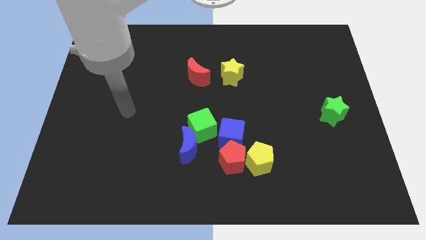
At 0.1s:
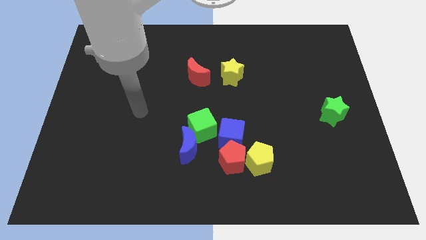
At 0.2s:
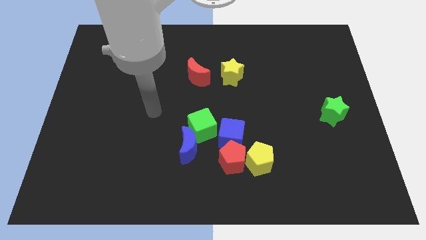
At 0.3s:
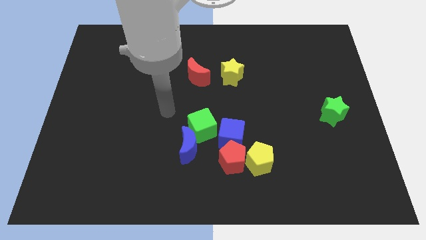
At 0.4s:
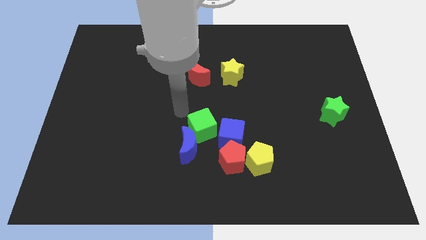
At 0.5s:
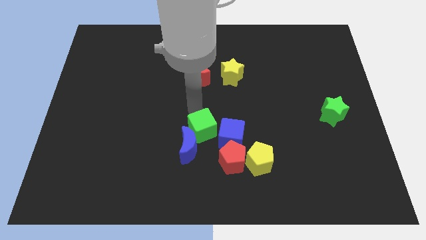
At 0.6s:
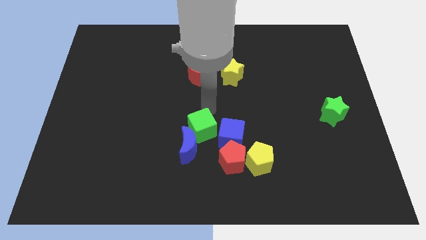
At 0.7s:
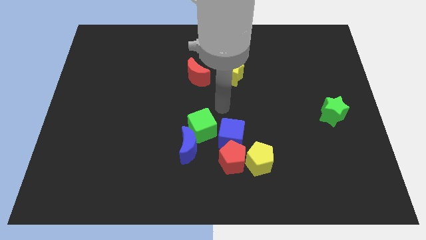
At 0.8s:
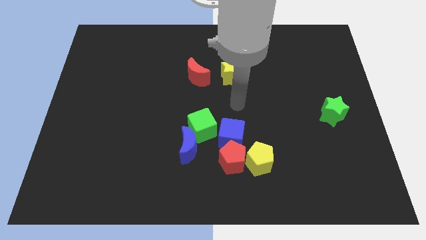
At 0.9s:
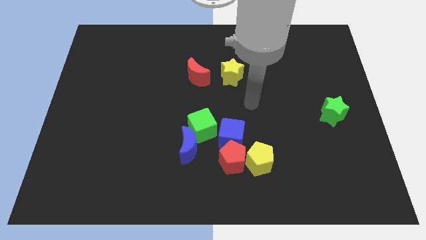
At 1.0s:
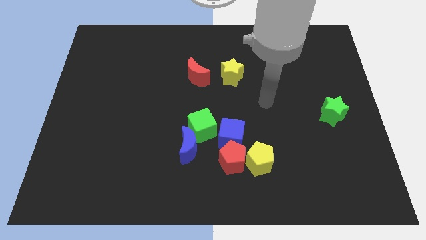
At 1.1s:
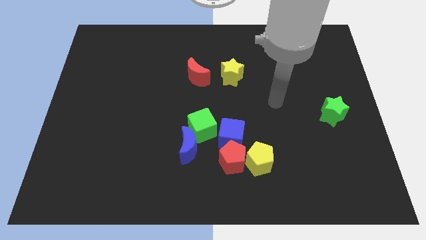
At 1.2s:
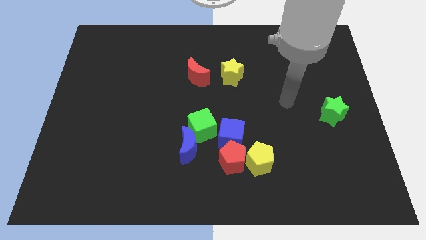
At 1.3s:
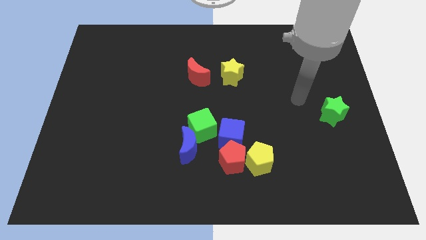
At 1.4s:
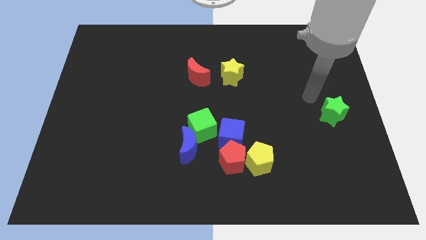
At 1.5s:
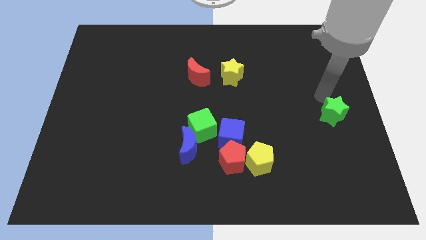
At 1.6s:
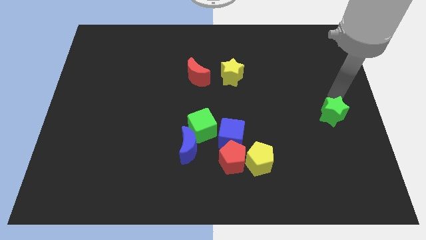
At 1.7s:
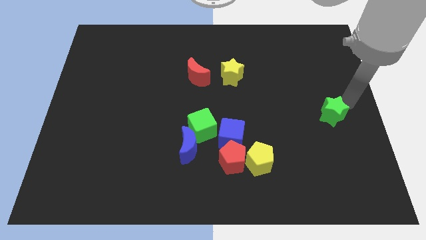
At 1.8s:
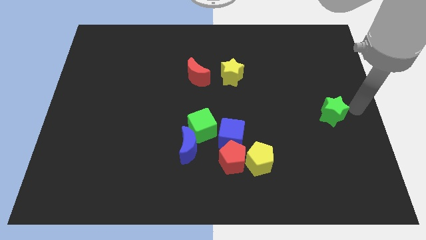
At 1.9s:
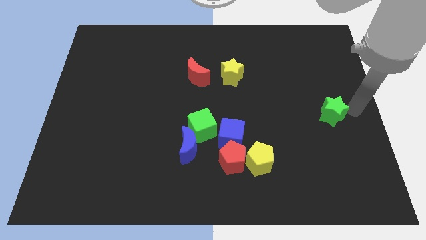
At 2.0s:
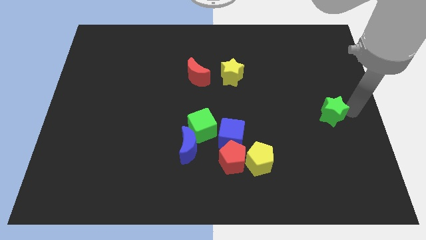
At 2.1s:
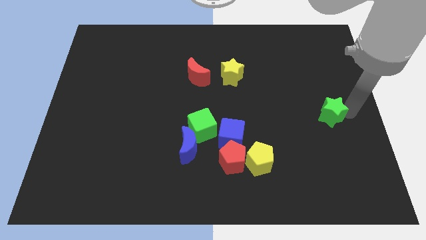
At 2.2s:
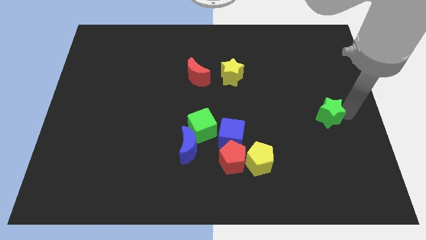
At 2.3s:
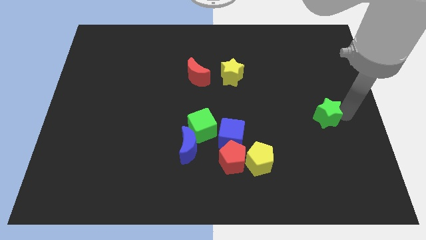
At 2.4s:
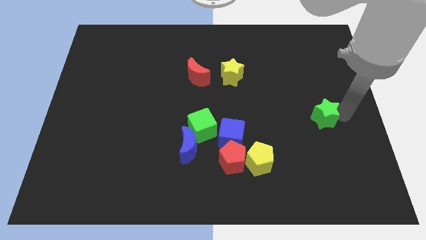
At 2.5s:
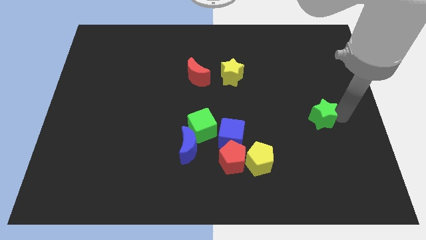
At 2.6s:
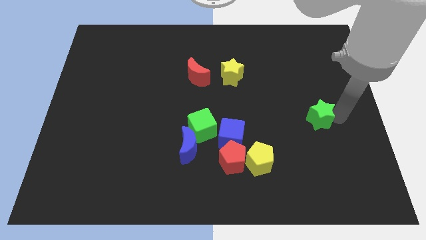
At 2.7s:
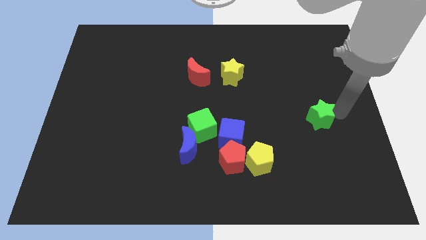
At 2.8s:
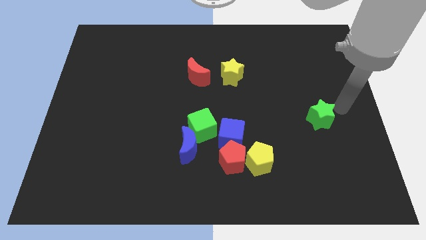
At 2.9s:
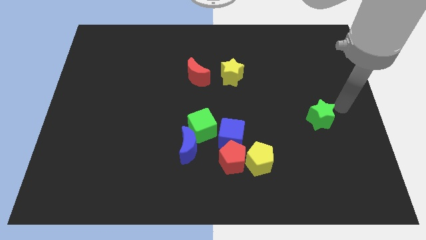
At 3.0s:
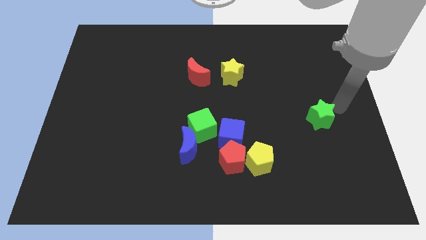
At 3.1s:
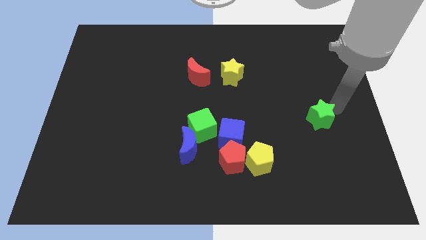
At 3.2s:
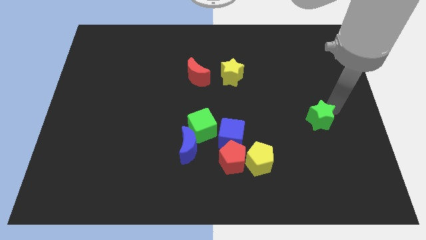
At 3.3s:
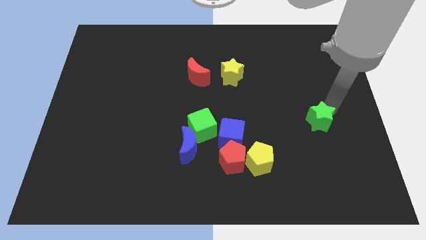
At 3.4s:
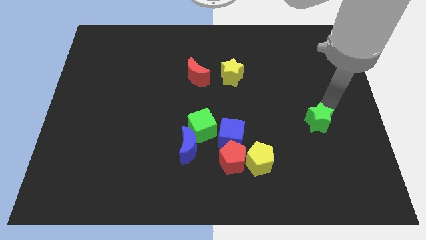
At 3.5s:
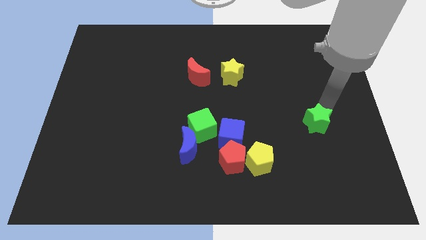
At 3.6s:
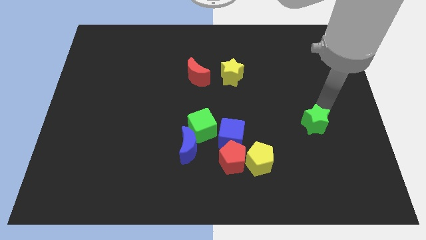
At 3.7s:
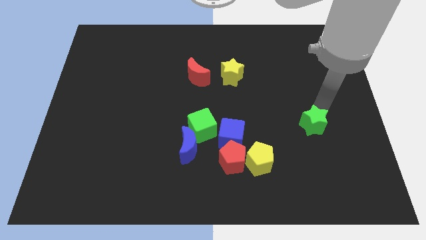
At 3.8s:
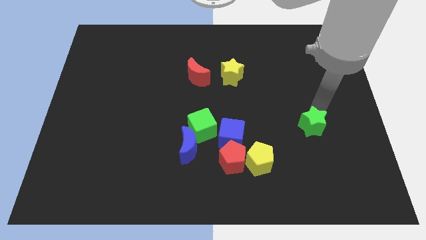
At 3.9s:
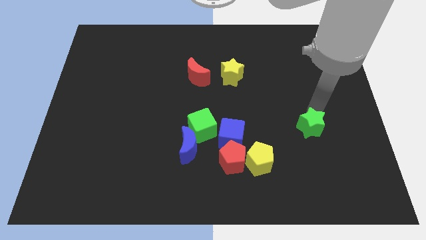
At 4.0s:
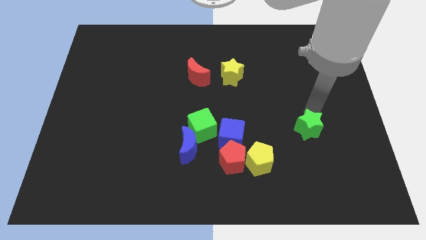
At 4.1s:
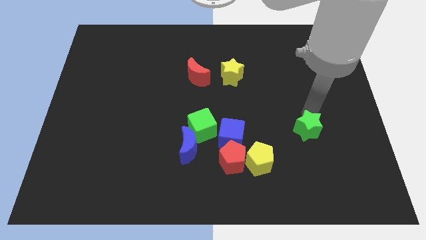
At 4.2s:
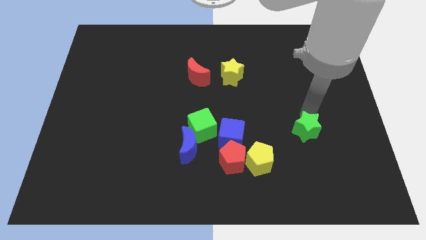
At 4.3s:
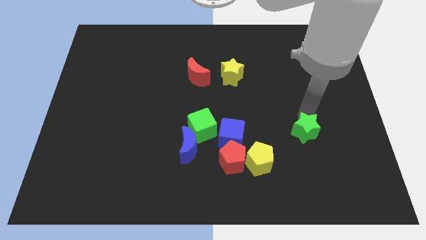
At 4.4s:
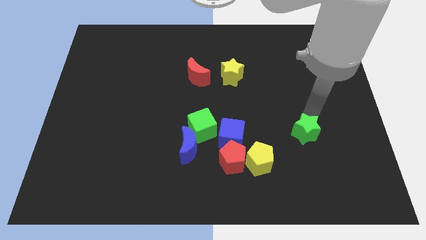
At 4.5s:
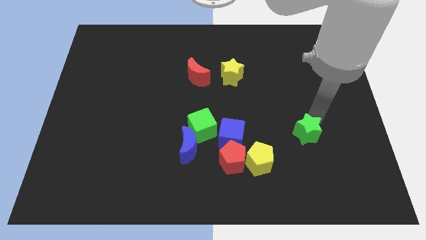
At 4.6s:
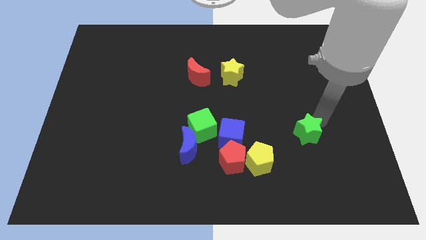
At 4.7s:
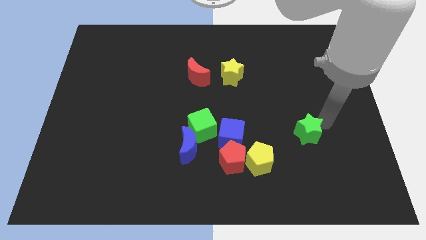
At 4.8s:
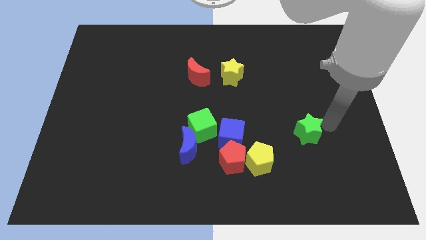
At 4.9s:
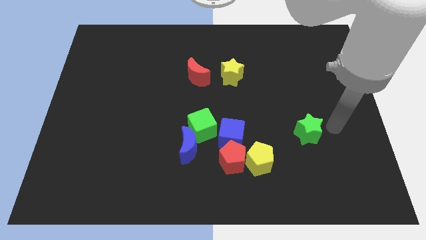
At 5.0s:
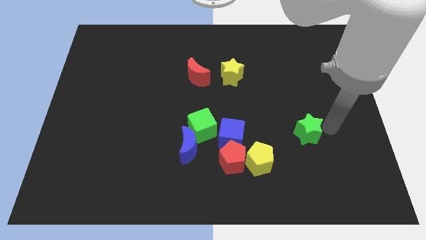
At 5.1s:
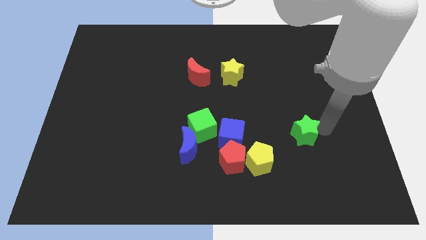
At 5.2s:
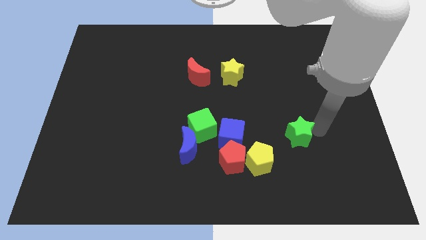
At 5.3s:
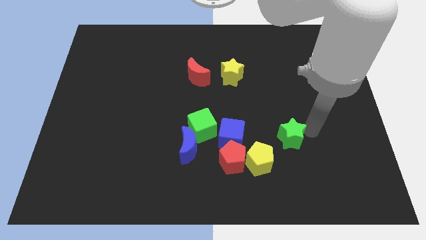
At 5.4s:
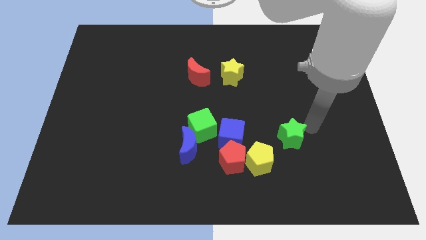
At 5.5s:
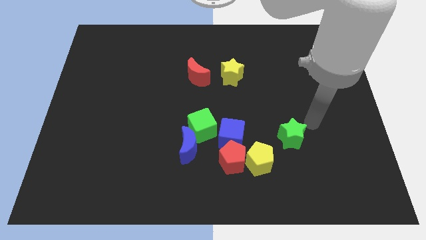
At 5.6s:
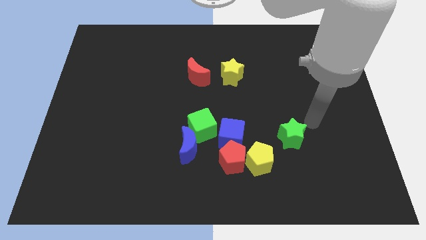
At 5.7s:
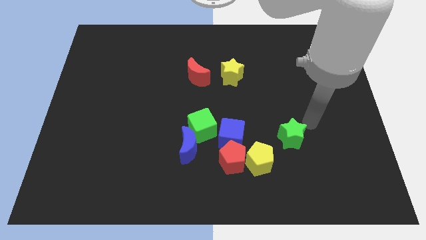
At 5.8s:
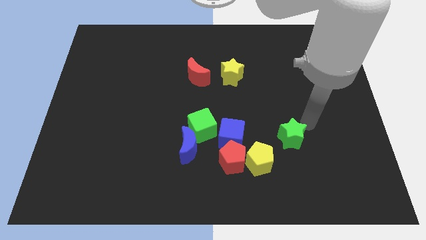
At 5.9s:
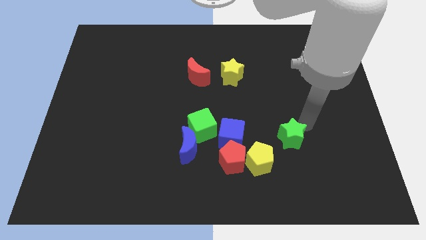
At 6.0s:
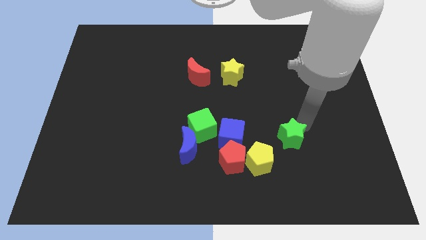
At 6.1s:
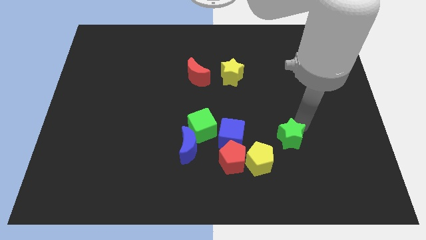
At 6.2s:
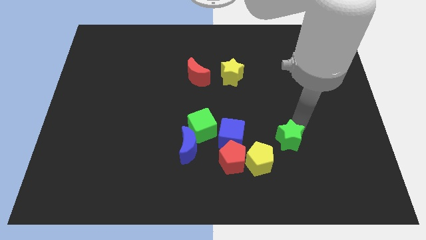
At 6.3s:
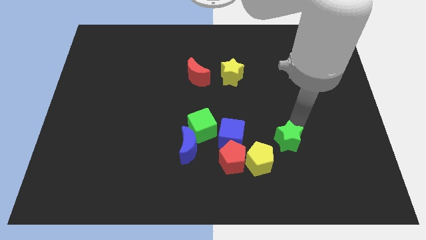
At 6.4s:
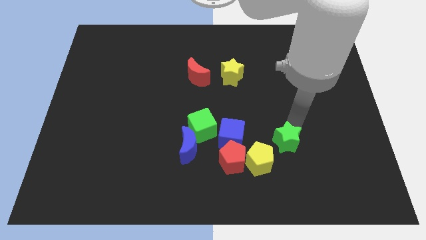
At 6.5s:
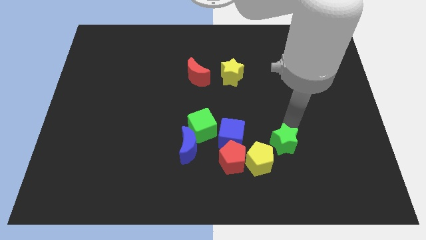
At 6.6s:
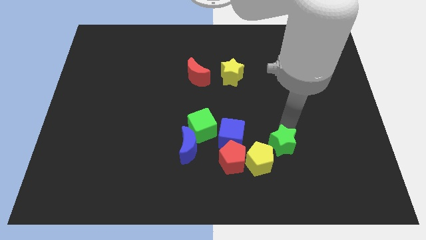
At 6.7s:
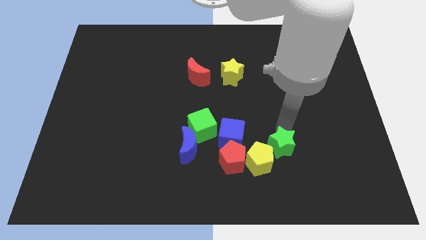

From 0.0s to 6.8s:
slide the green star close to the yellow pentagon
